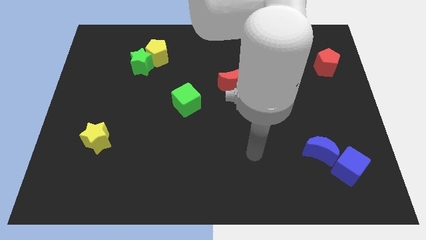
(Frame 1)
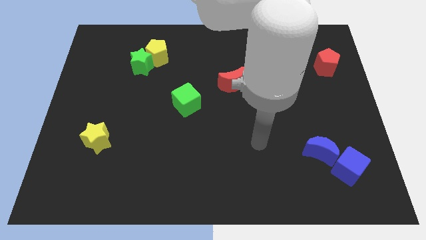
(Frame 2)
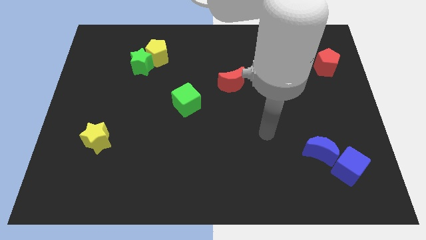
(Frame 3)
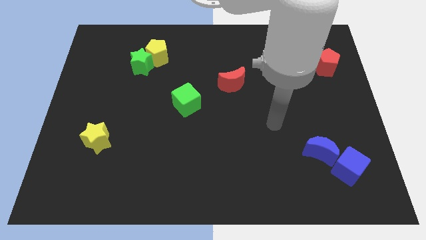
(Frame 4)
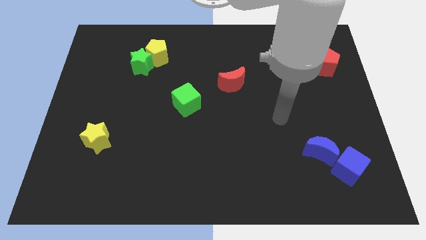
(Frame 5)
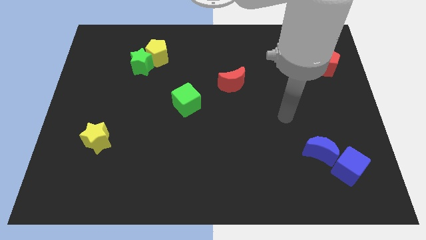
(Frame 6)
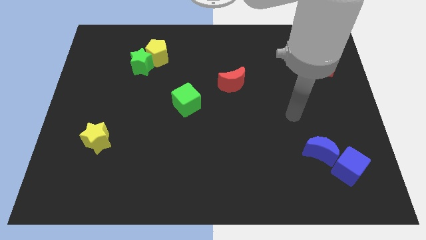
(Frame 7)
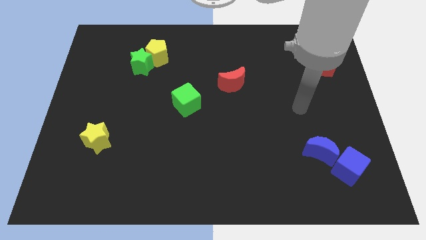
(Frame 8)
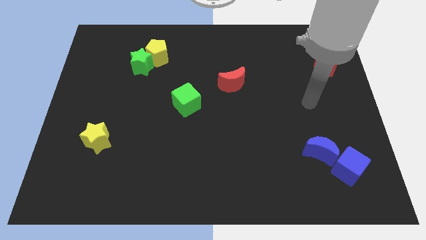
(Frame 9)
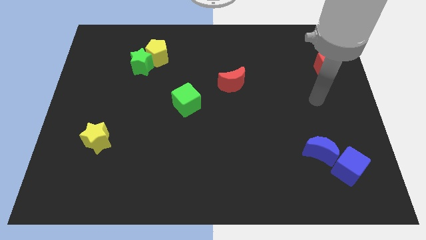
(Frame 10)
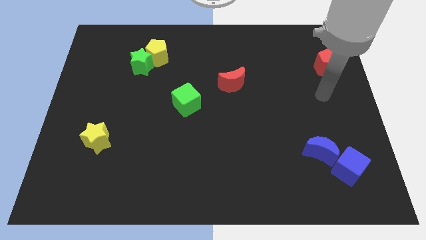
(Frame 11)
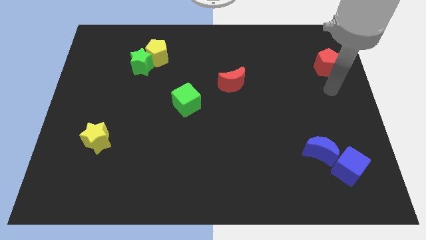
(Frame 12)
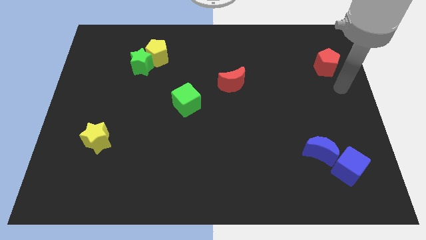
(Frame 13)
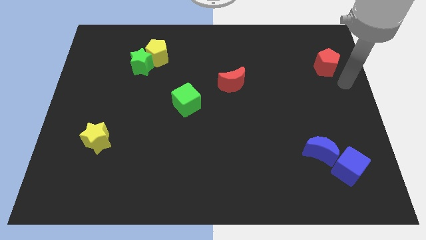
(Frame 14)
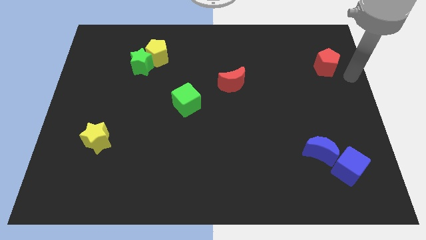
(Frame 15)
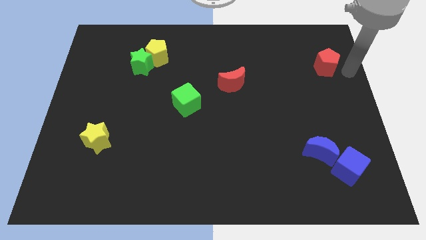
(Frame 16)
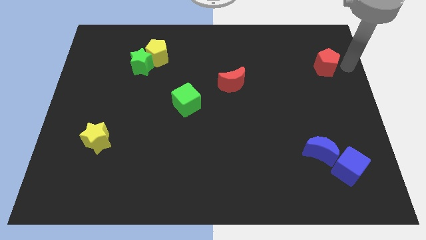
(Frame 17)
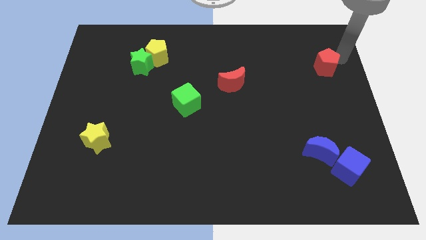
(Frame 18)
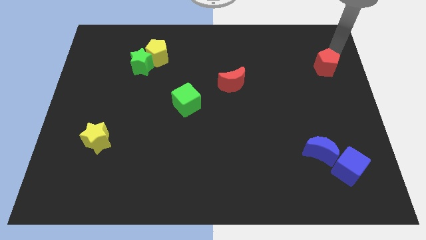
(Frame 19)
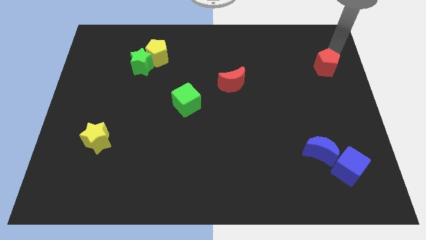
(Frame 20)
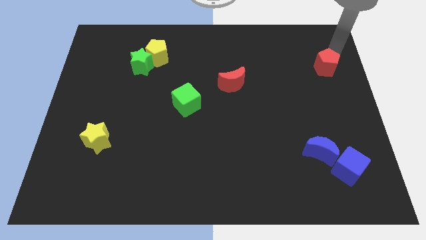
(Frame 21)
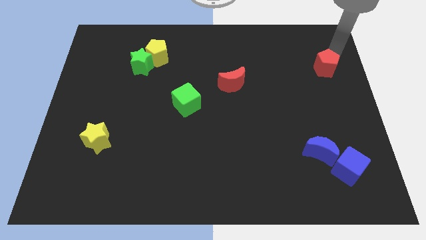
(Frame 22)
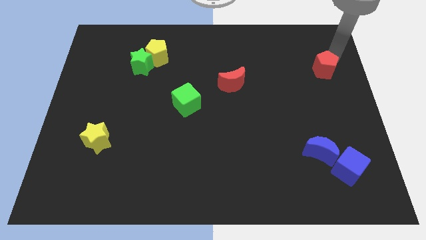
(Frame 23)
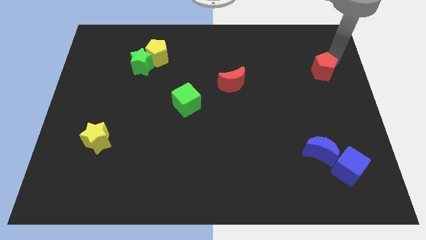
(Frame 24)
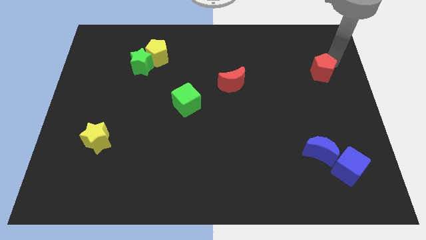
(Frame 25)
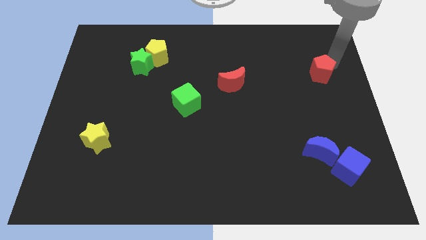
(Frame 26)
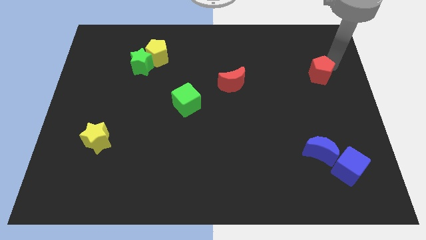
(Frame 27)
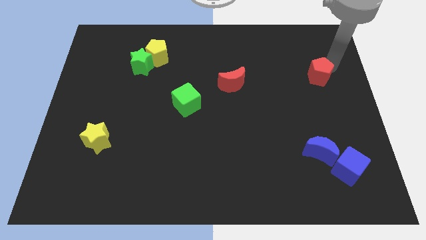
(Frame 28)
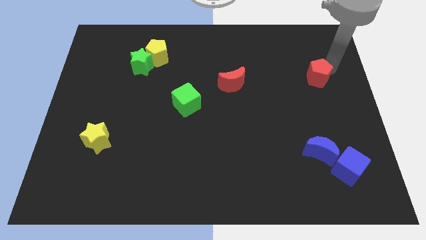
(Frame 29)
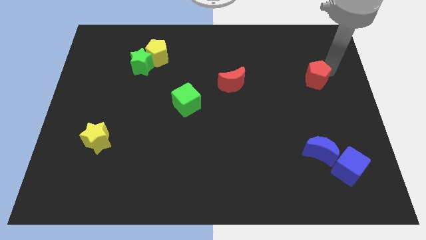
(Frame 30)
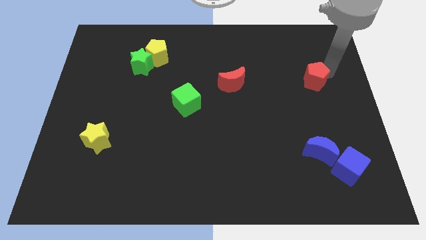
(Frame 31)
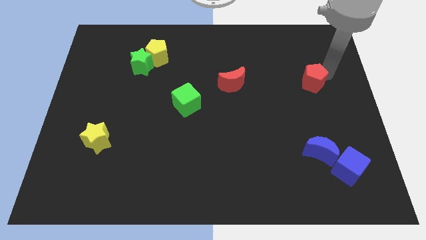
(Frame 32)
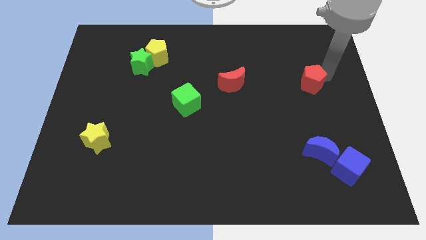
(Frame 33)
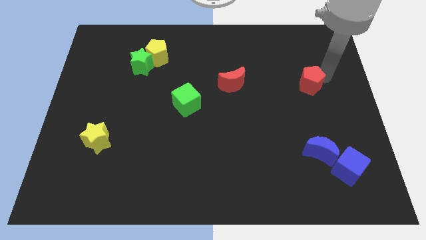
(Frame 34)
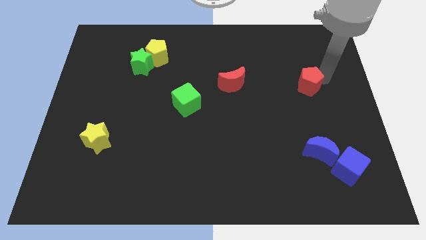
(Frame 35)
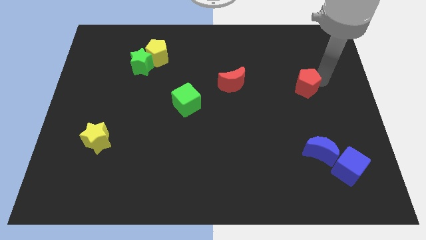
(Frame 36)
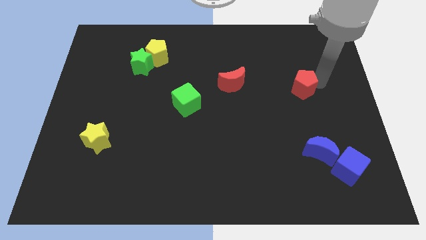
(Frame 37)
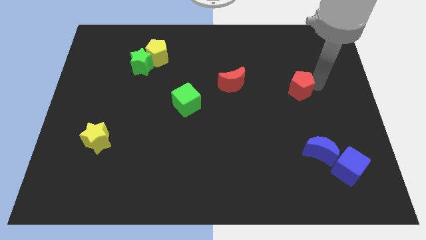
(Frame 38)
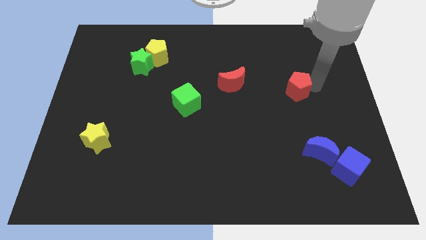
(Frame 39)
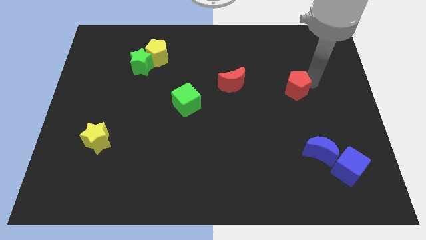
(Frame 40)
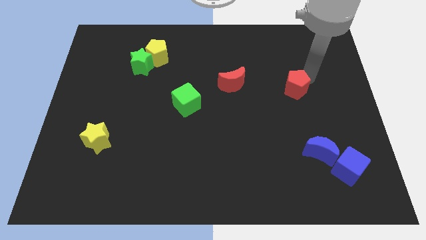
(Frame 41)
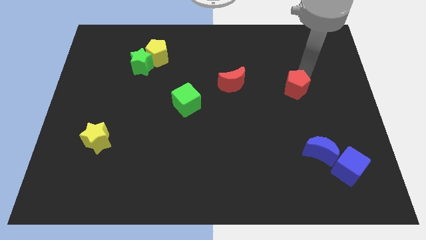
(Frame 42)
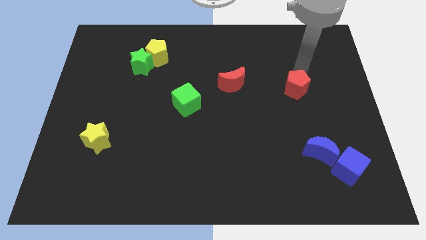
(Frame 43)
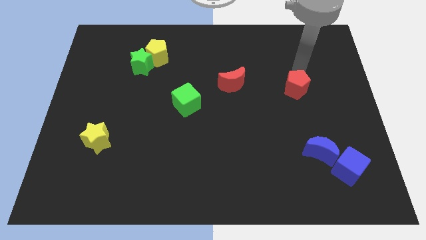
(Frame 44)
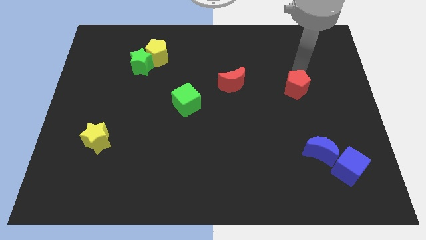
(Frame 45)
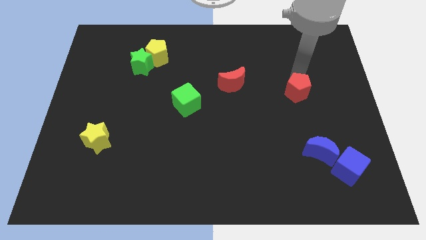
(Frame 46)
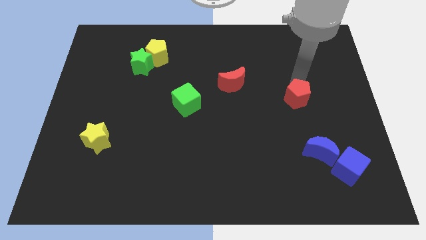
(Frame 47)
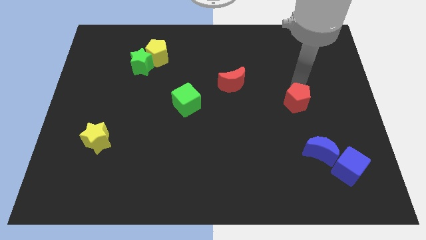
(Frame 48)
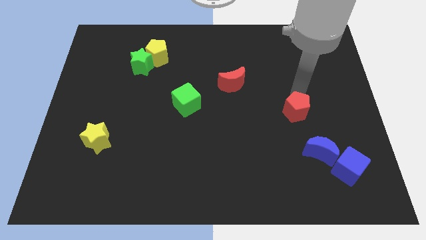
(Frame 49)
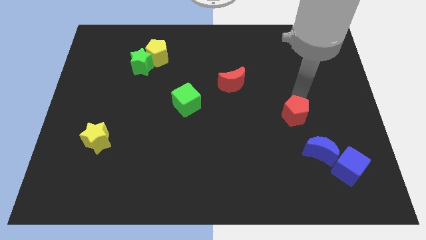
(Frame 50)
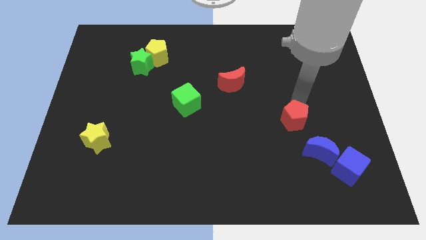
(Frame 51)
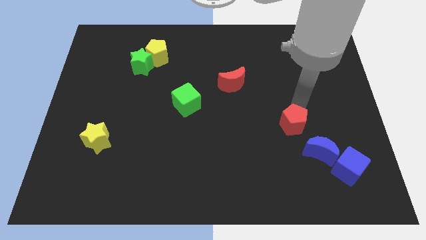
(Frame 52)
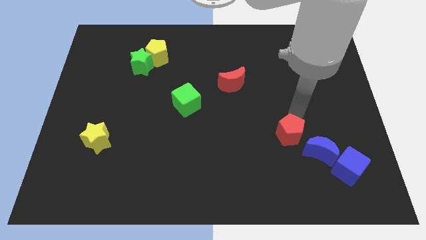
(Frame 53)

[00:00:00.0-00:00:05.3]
put the red pentagon to the left side of the blue moon

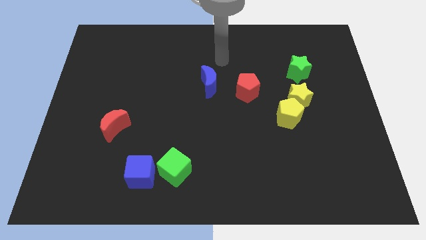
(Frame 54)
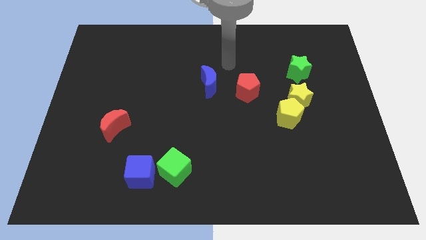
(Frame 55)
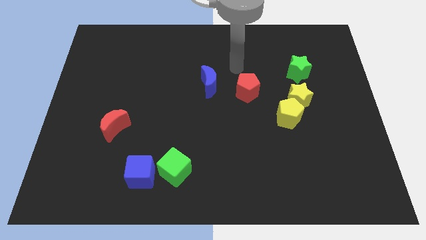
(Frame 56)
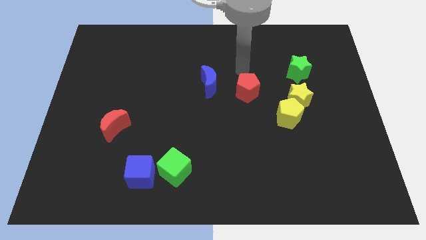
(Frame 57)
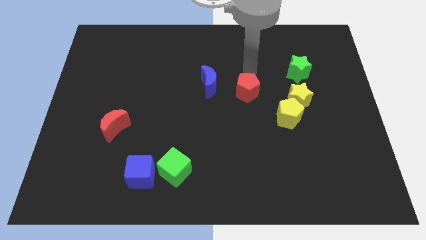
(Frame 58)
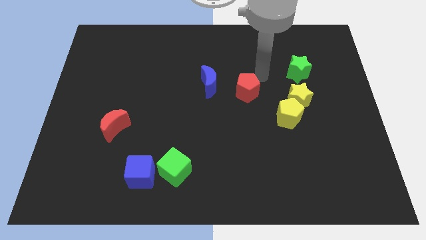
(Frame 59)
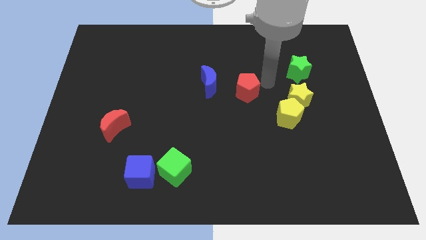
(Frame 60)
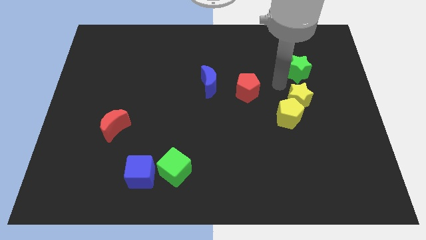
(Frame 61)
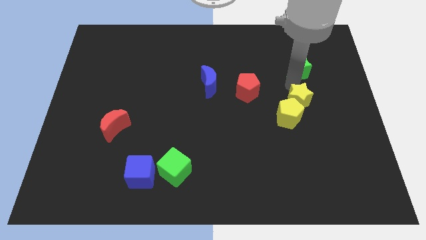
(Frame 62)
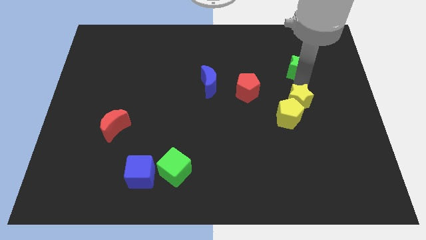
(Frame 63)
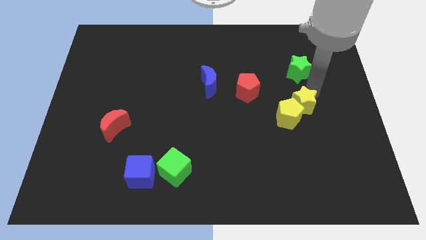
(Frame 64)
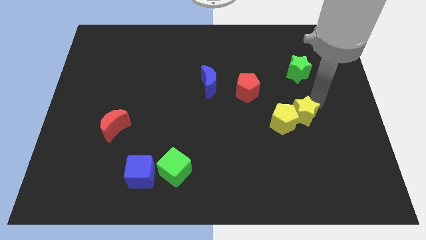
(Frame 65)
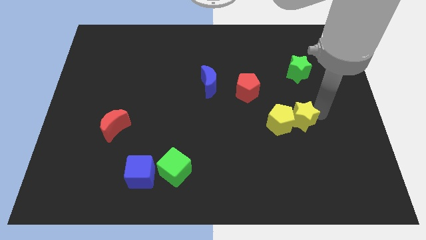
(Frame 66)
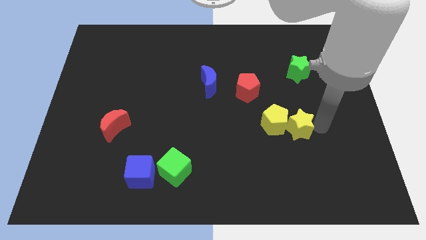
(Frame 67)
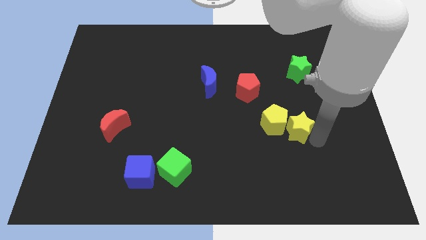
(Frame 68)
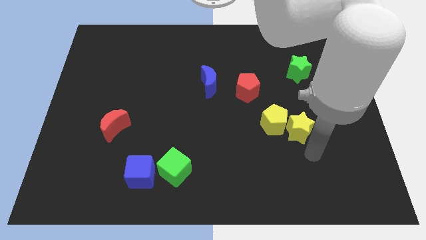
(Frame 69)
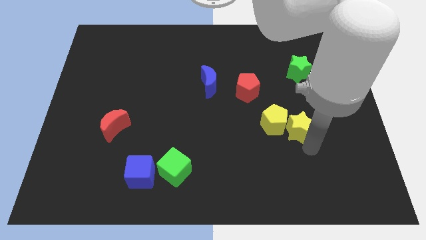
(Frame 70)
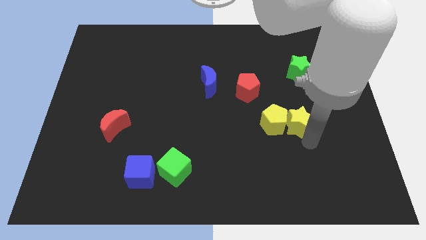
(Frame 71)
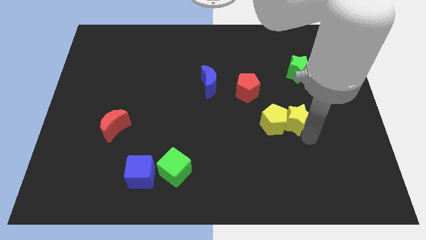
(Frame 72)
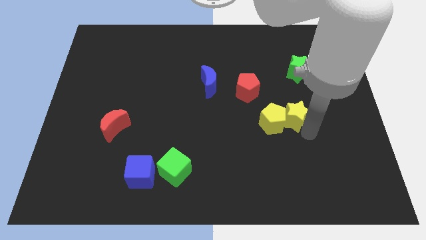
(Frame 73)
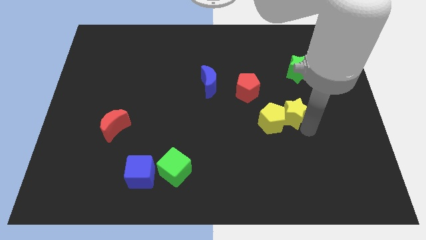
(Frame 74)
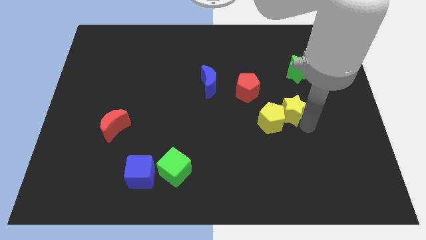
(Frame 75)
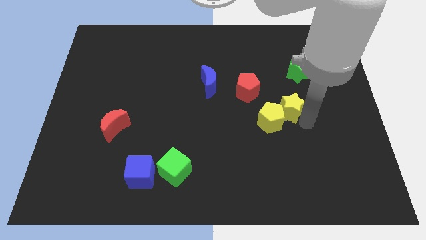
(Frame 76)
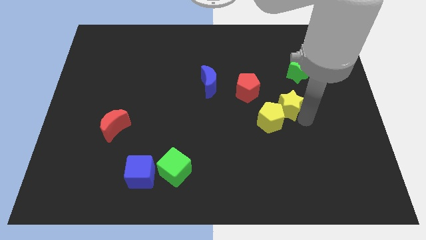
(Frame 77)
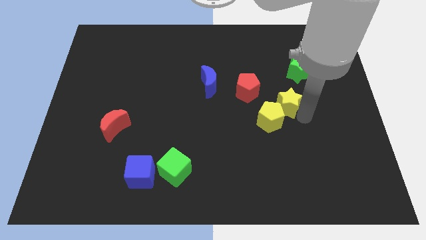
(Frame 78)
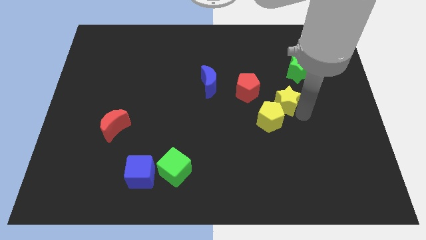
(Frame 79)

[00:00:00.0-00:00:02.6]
push the yellow star to the bottom left of the green star

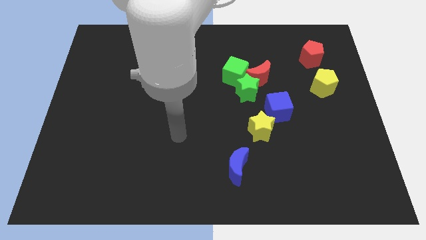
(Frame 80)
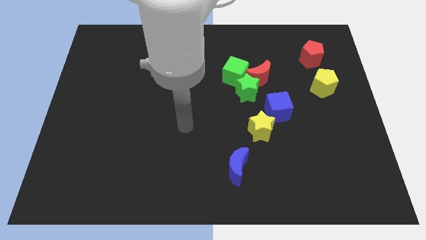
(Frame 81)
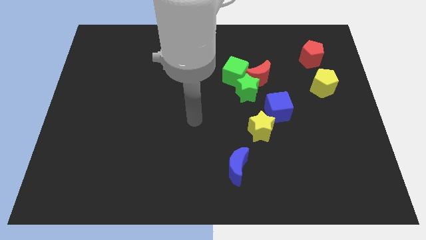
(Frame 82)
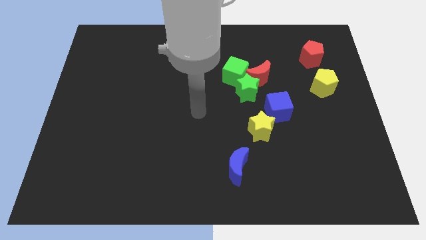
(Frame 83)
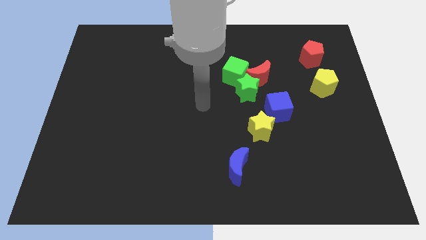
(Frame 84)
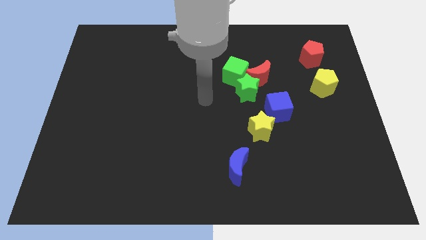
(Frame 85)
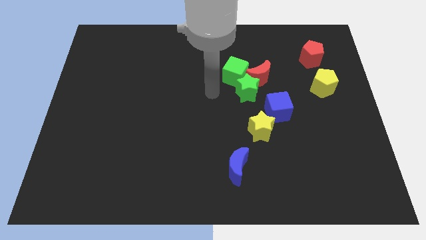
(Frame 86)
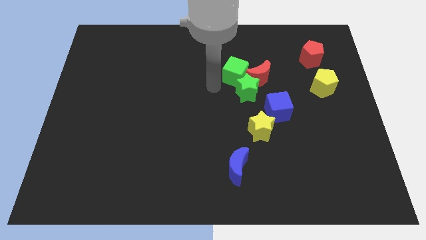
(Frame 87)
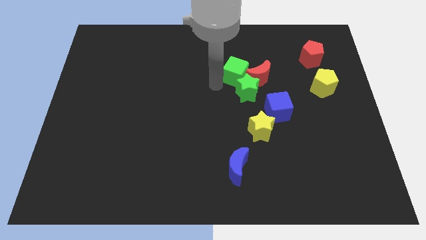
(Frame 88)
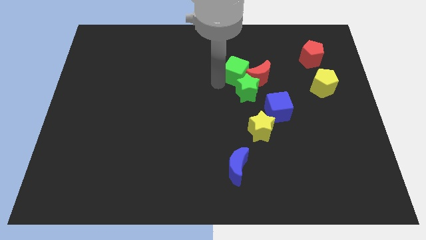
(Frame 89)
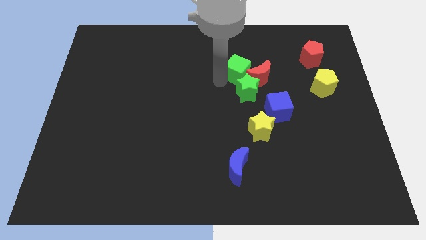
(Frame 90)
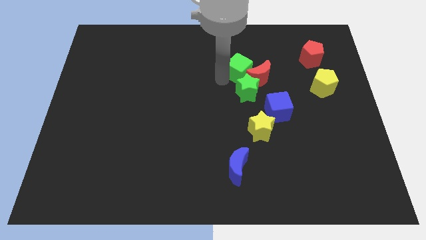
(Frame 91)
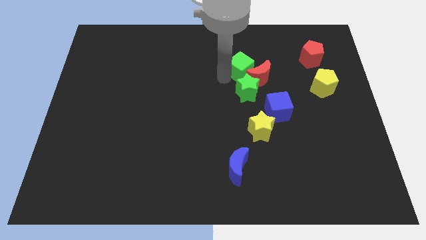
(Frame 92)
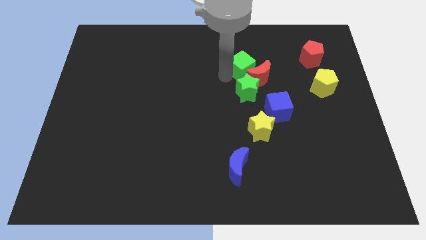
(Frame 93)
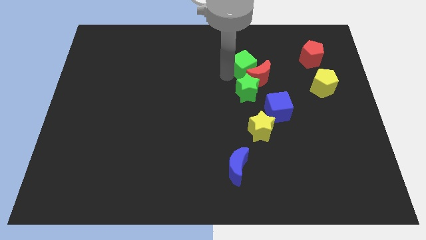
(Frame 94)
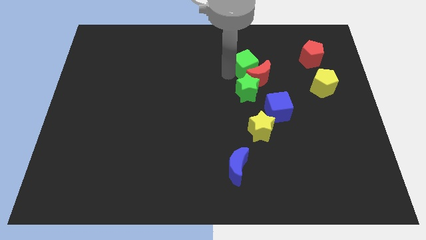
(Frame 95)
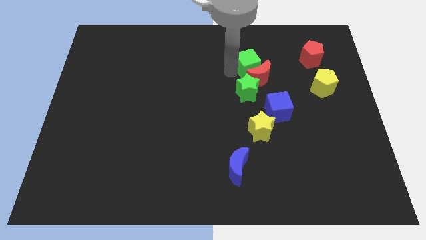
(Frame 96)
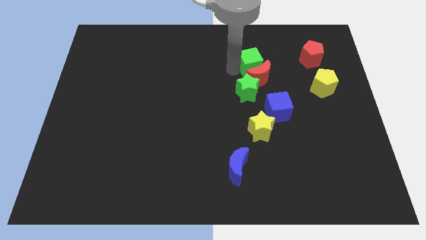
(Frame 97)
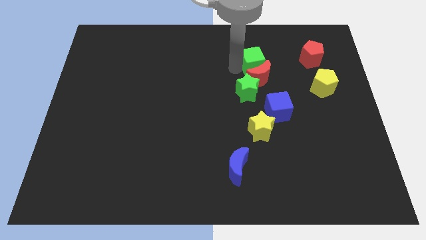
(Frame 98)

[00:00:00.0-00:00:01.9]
move the green cube diagonally up and to the right of the red moon
